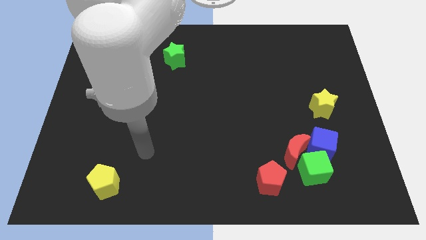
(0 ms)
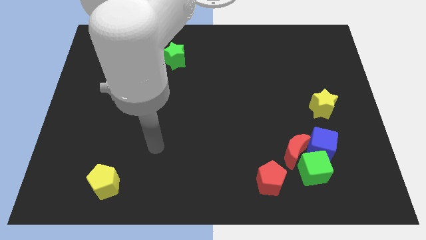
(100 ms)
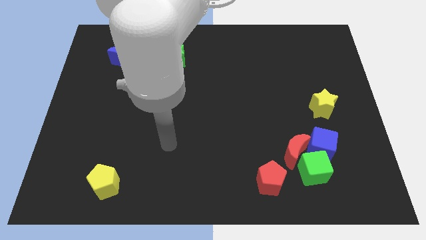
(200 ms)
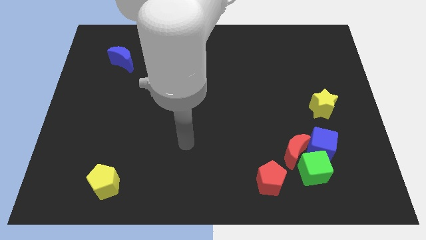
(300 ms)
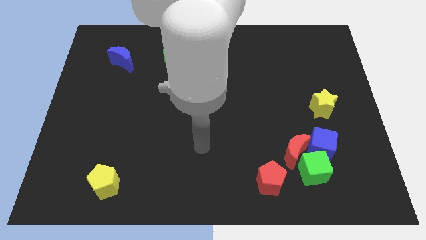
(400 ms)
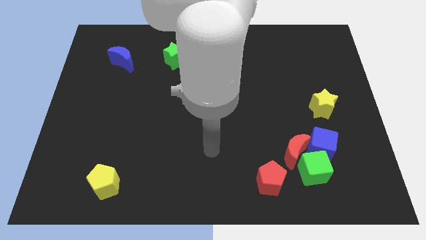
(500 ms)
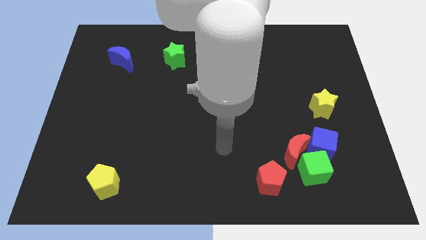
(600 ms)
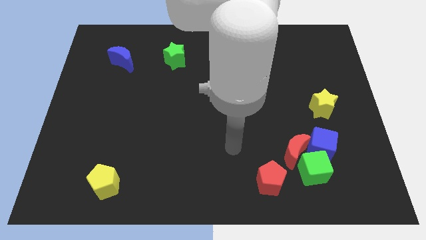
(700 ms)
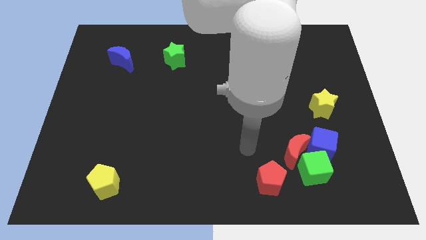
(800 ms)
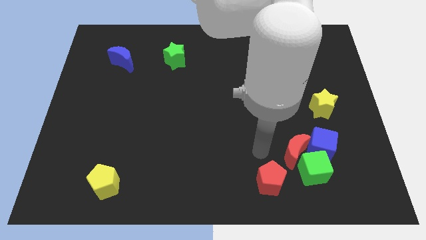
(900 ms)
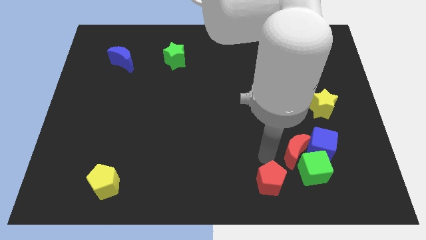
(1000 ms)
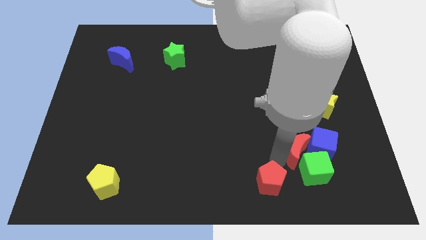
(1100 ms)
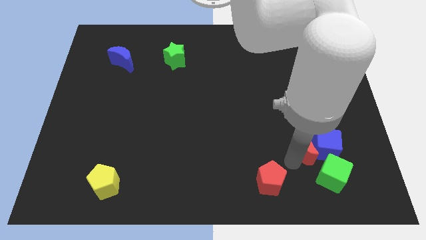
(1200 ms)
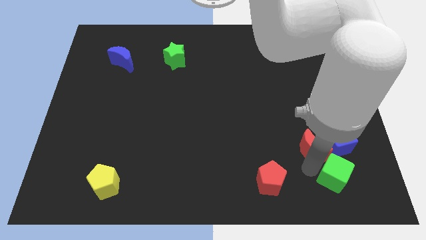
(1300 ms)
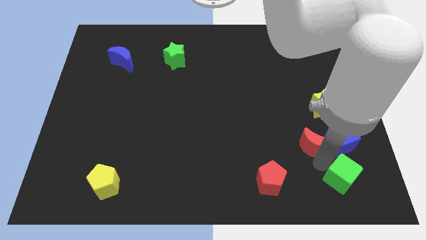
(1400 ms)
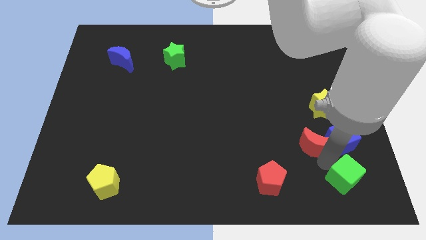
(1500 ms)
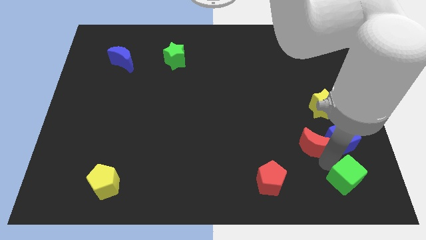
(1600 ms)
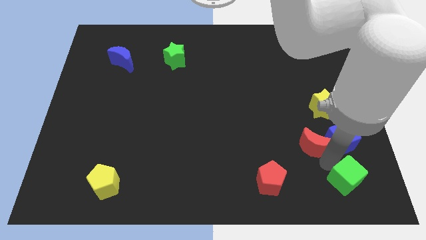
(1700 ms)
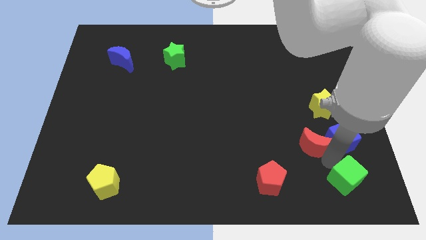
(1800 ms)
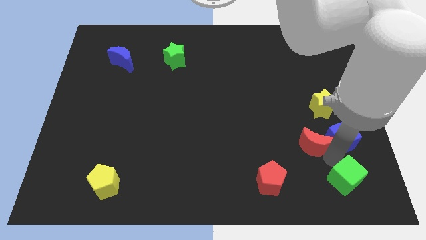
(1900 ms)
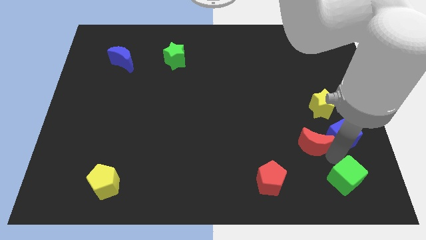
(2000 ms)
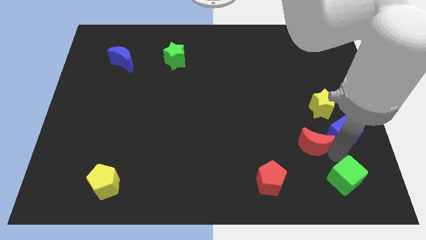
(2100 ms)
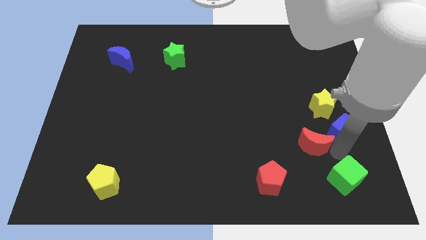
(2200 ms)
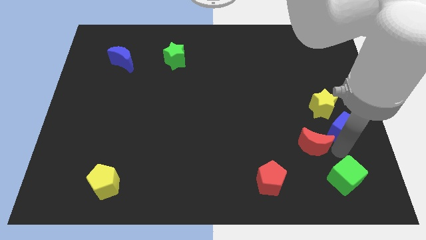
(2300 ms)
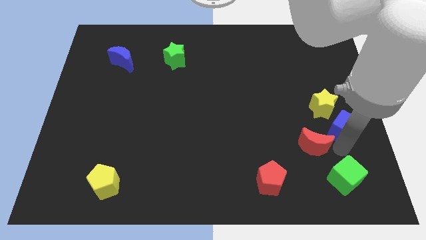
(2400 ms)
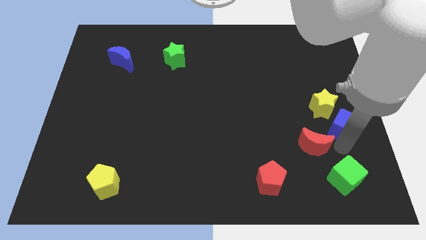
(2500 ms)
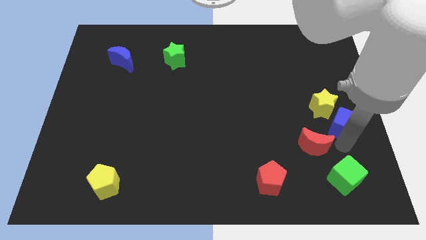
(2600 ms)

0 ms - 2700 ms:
separate the blue cube from the red moon and green cube

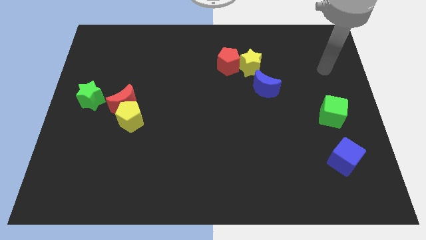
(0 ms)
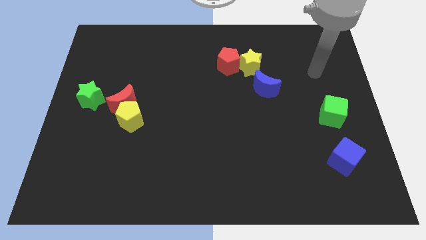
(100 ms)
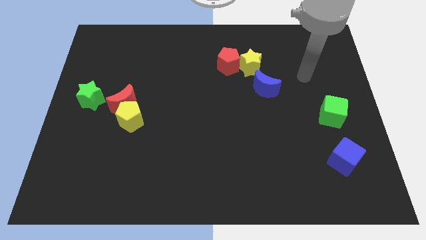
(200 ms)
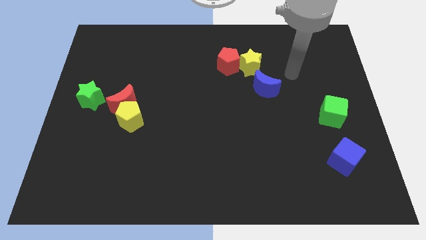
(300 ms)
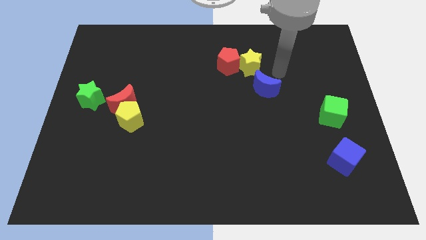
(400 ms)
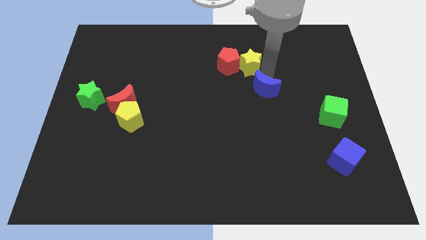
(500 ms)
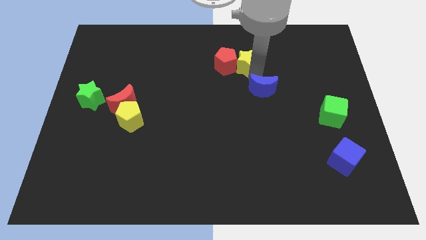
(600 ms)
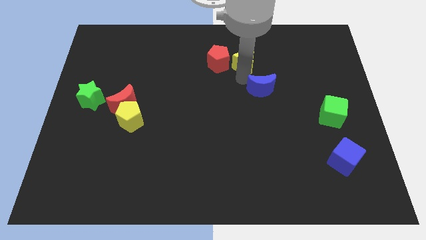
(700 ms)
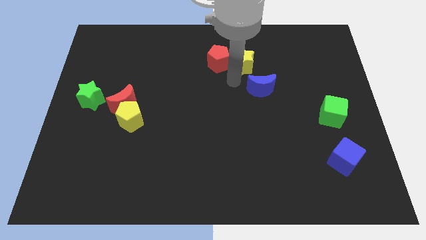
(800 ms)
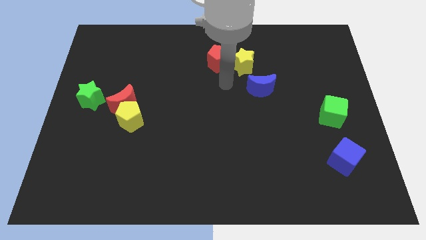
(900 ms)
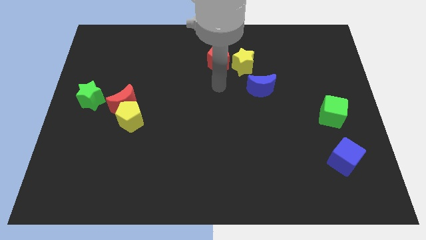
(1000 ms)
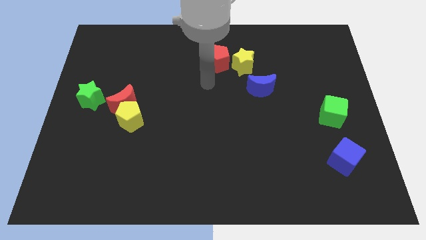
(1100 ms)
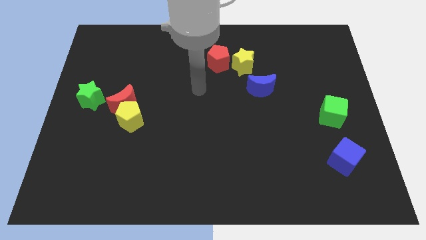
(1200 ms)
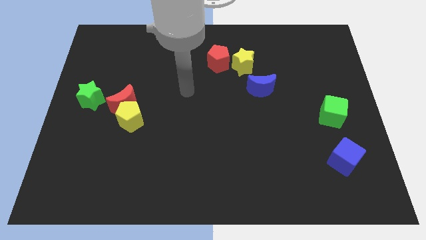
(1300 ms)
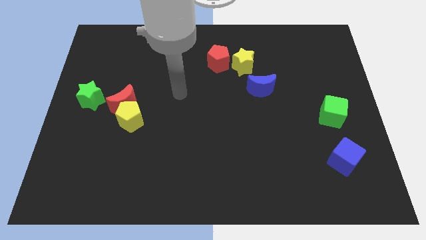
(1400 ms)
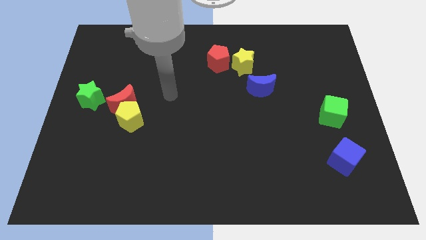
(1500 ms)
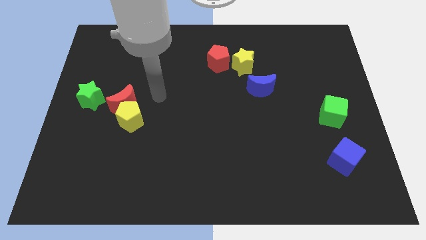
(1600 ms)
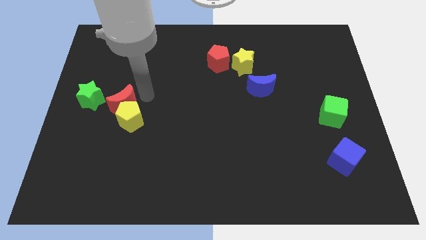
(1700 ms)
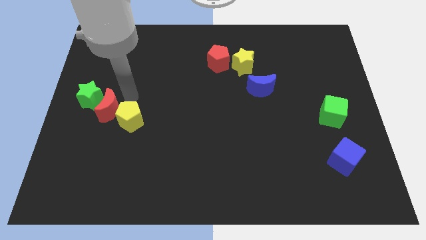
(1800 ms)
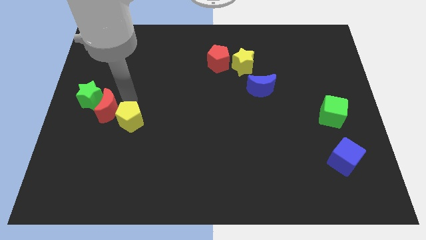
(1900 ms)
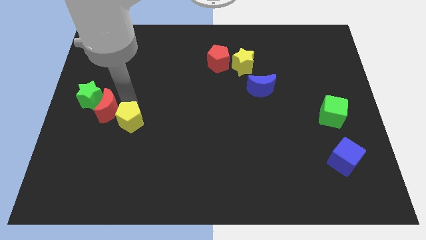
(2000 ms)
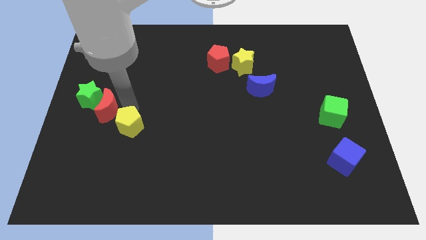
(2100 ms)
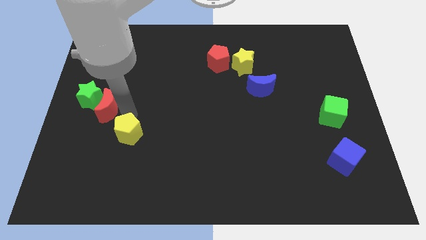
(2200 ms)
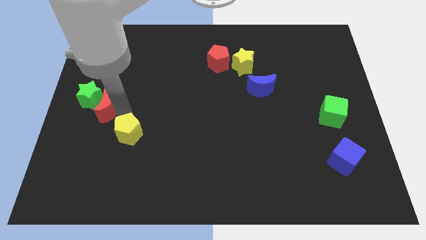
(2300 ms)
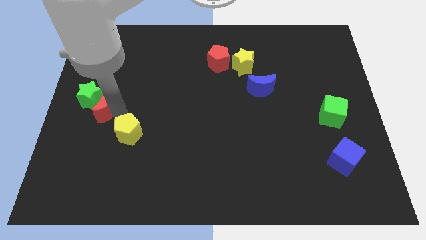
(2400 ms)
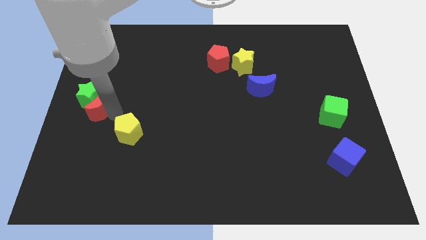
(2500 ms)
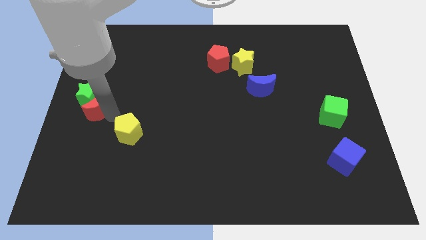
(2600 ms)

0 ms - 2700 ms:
move the yellow pentagon away from the red moon

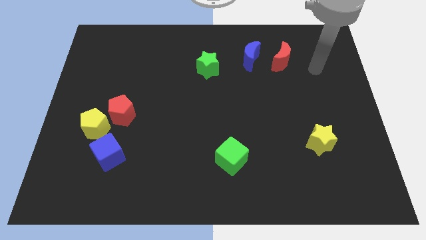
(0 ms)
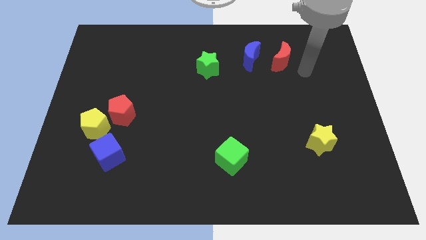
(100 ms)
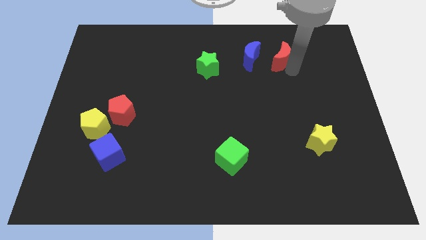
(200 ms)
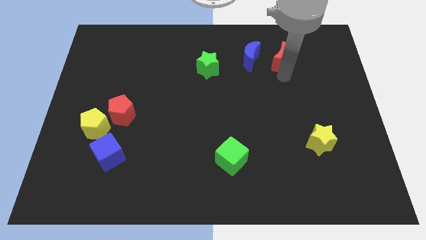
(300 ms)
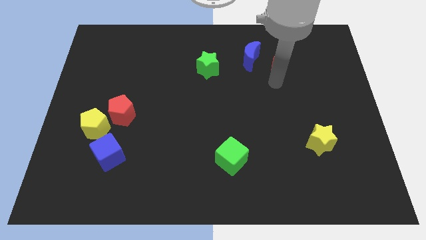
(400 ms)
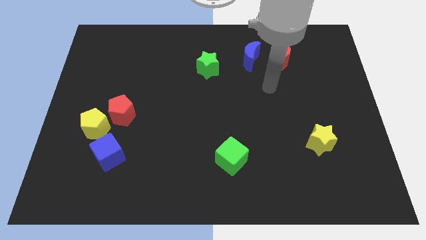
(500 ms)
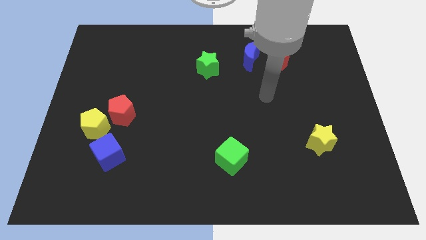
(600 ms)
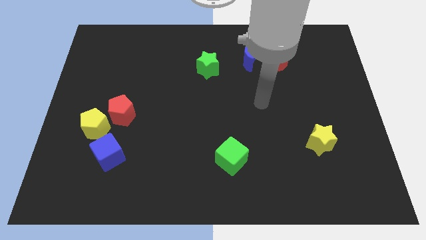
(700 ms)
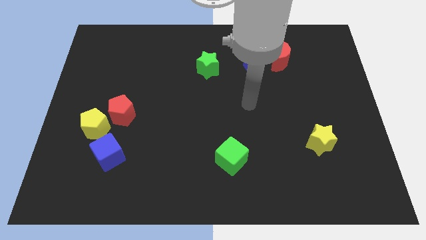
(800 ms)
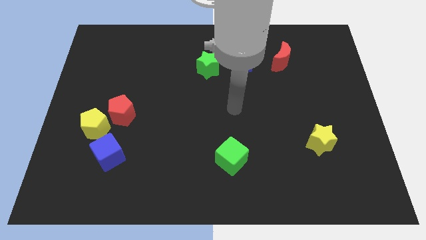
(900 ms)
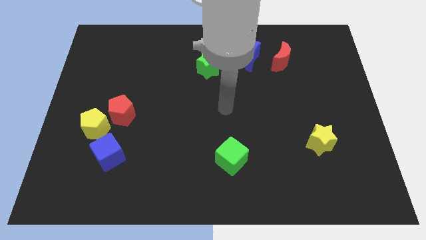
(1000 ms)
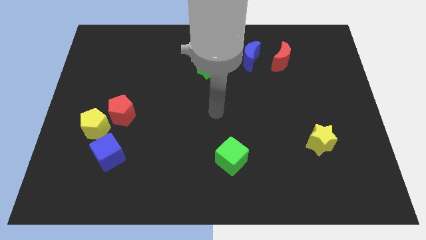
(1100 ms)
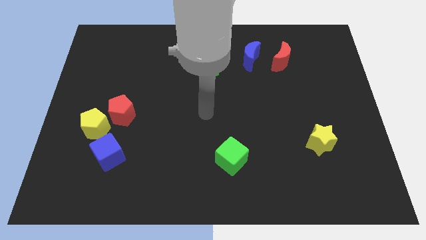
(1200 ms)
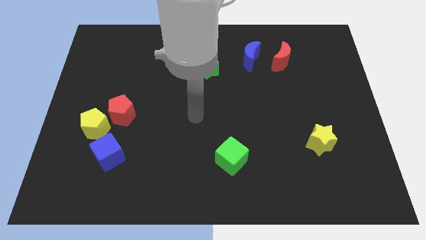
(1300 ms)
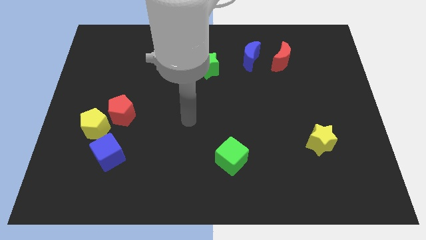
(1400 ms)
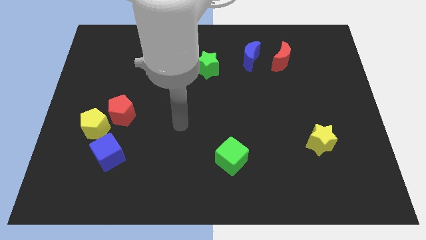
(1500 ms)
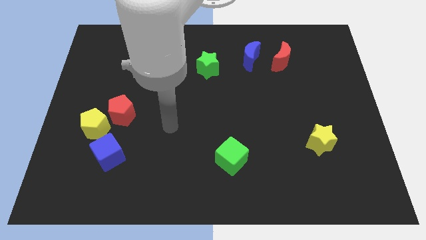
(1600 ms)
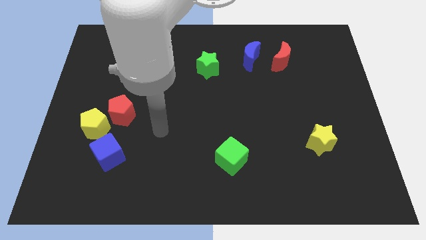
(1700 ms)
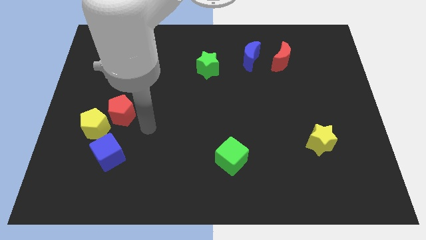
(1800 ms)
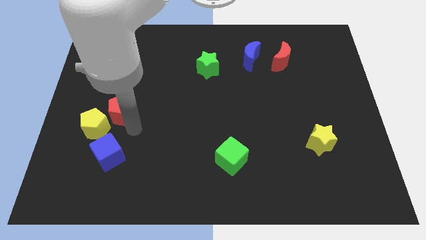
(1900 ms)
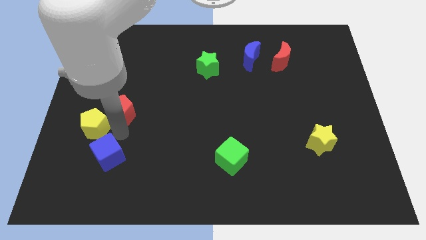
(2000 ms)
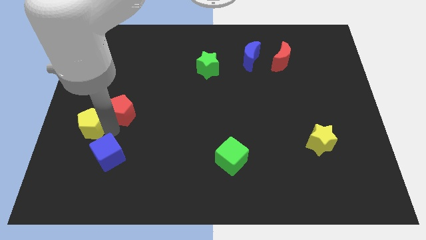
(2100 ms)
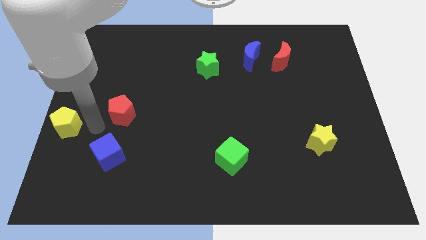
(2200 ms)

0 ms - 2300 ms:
pull the red pentagon apart from the yellow pentagon

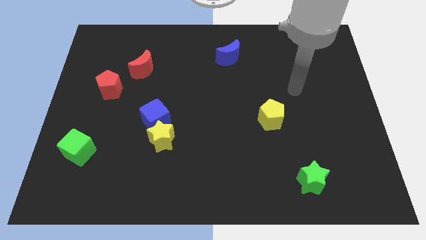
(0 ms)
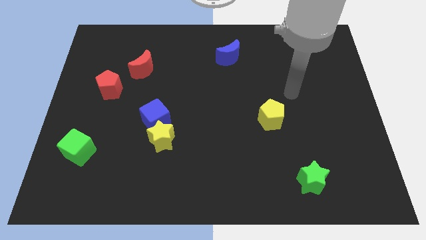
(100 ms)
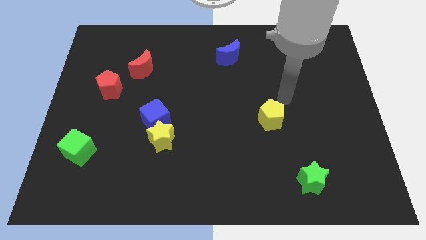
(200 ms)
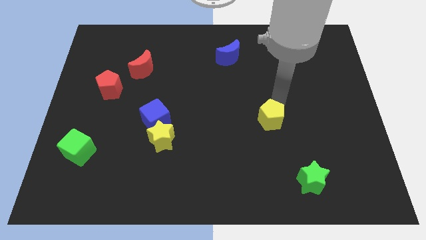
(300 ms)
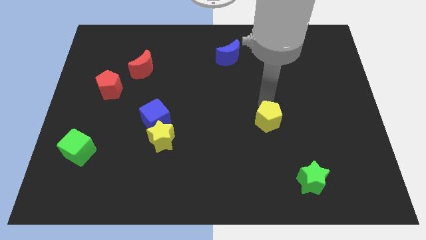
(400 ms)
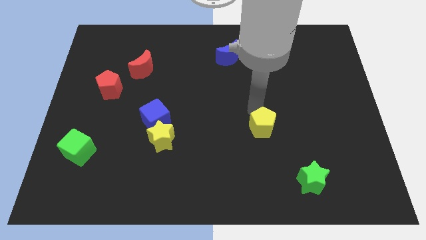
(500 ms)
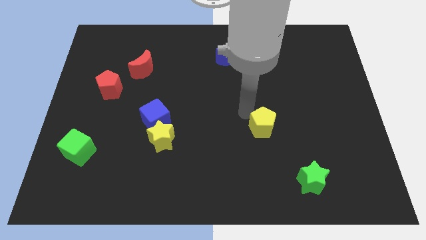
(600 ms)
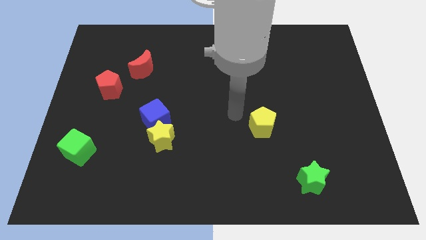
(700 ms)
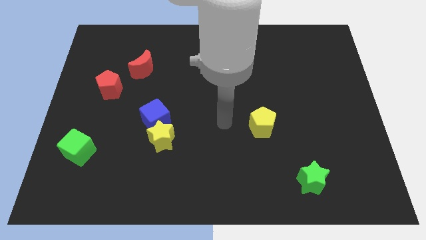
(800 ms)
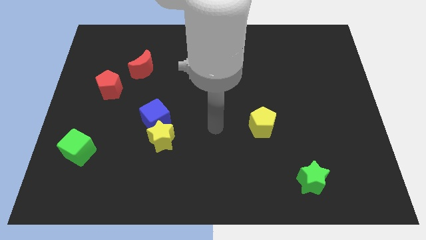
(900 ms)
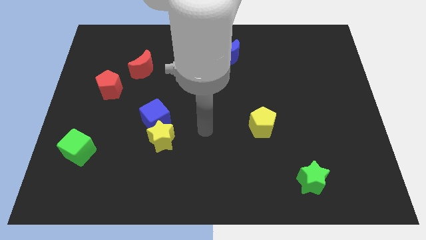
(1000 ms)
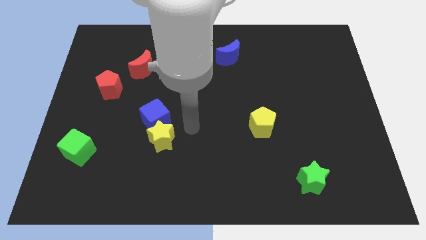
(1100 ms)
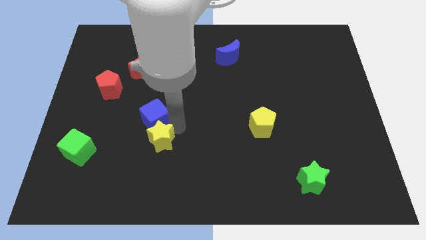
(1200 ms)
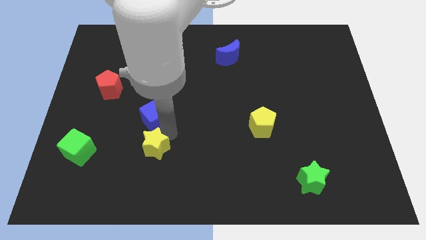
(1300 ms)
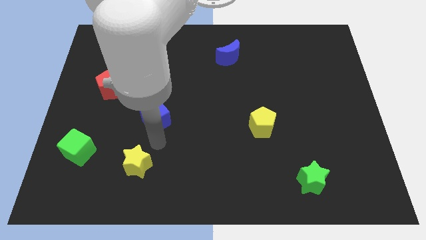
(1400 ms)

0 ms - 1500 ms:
move the blue cube away from the yellow star

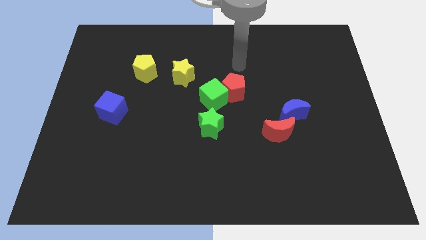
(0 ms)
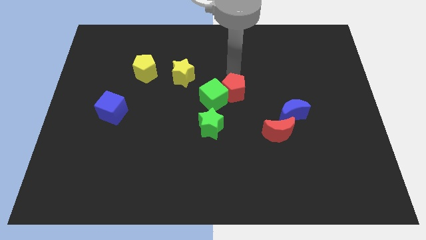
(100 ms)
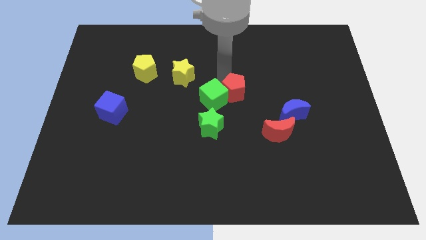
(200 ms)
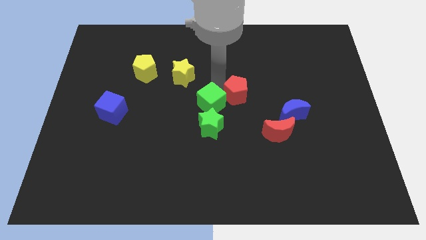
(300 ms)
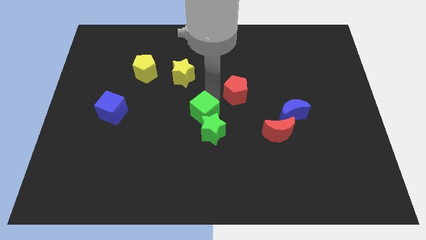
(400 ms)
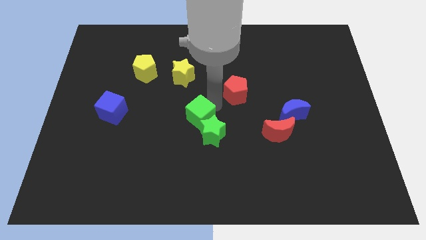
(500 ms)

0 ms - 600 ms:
move the red pentagon away from the green cube
